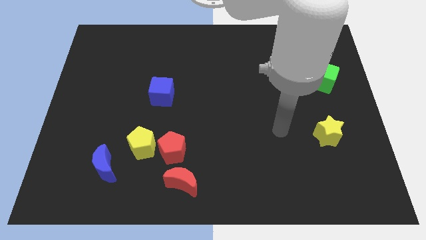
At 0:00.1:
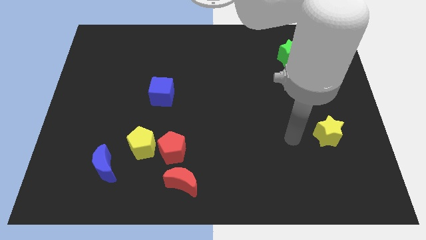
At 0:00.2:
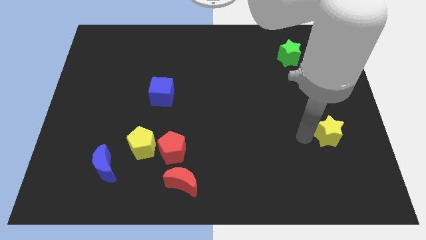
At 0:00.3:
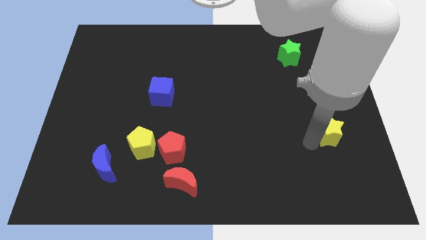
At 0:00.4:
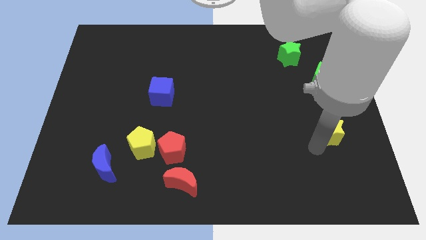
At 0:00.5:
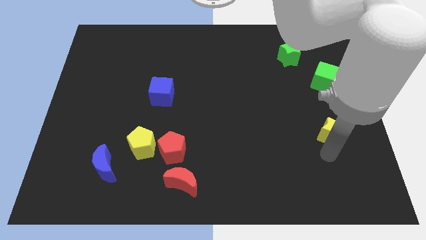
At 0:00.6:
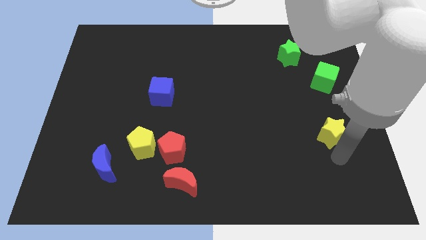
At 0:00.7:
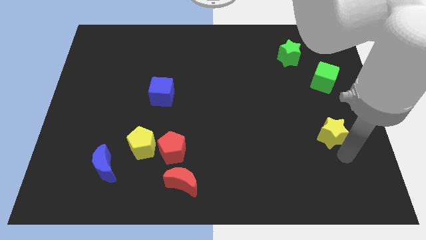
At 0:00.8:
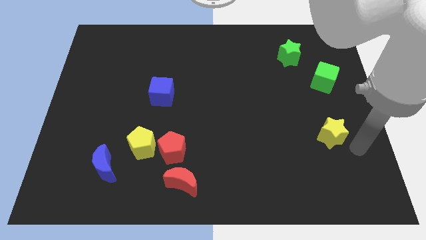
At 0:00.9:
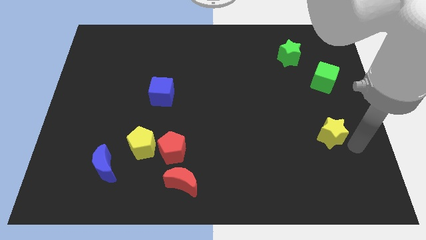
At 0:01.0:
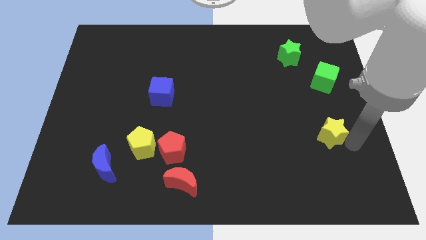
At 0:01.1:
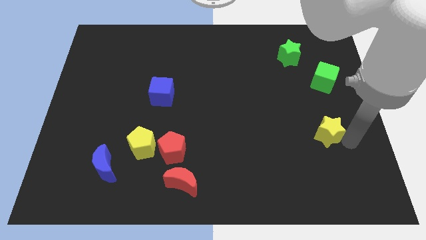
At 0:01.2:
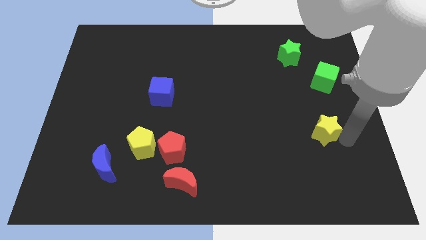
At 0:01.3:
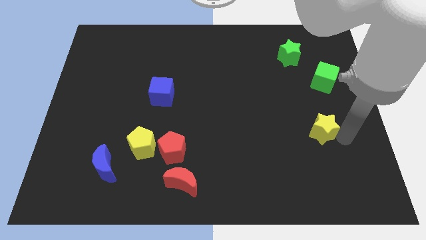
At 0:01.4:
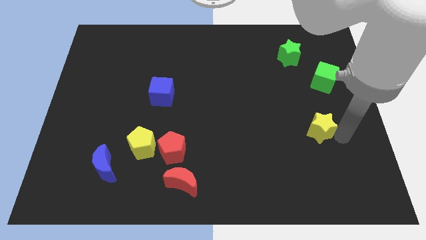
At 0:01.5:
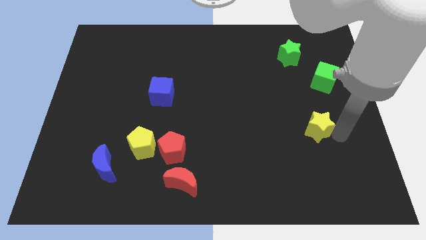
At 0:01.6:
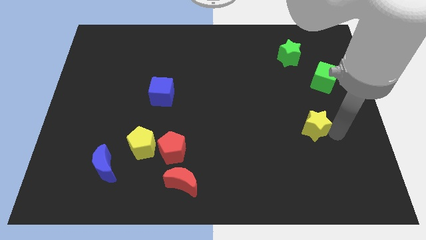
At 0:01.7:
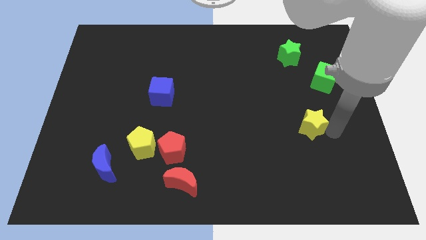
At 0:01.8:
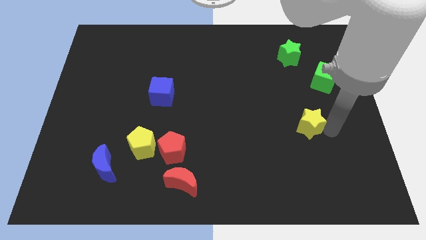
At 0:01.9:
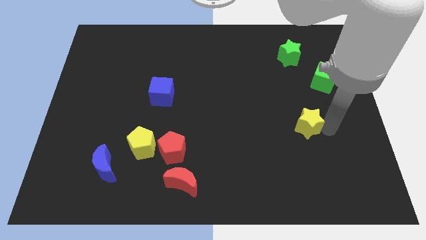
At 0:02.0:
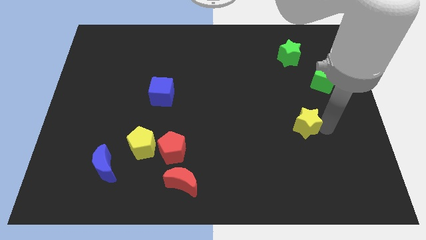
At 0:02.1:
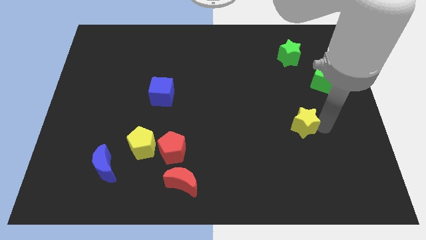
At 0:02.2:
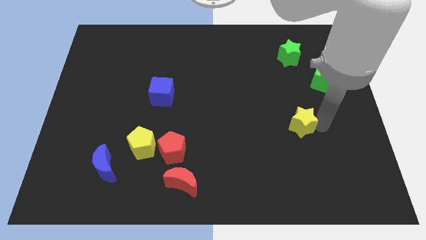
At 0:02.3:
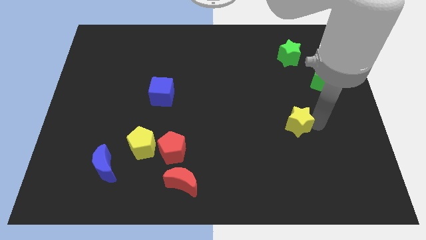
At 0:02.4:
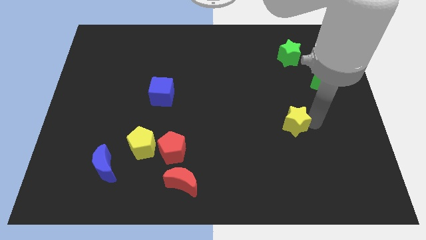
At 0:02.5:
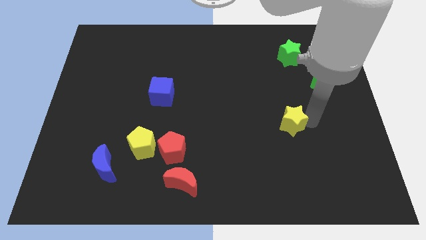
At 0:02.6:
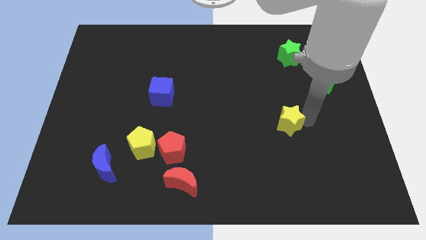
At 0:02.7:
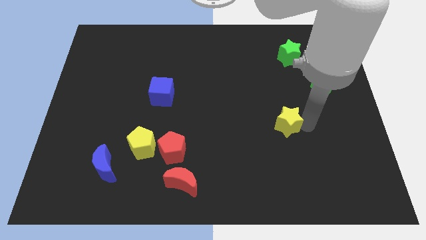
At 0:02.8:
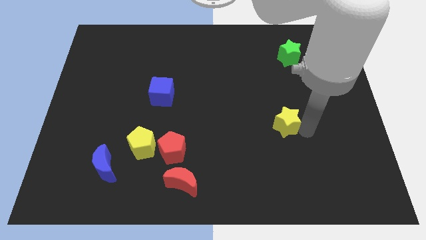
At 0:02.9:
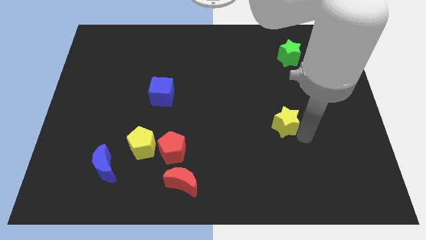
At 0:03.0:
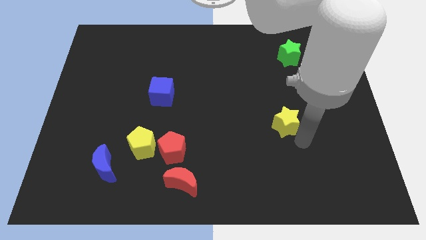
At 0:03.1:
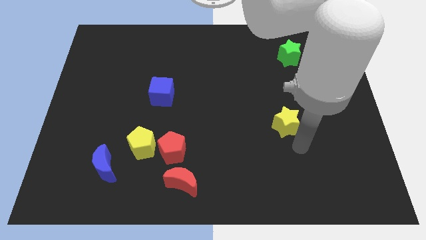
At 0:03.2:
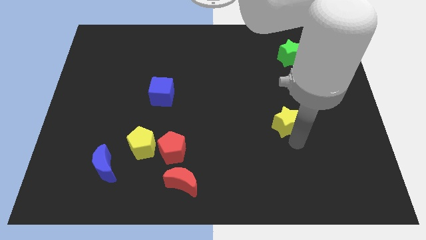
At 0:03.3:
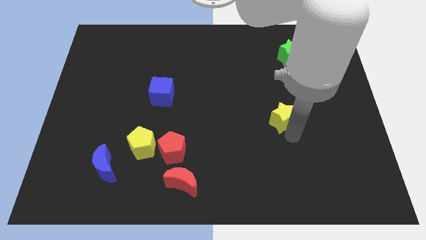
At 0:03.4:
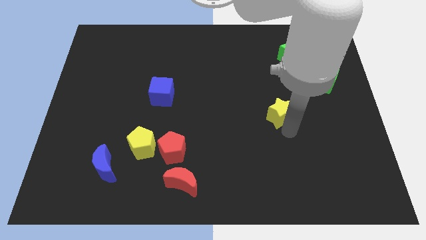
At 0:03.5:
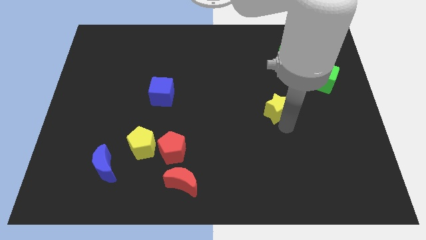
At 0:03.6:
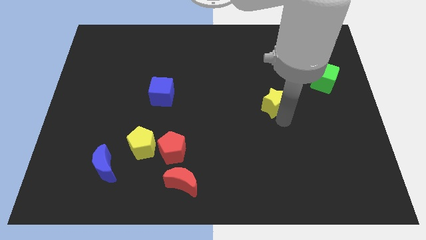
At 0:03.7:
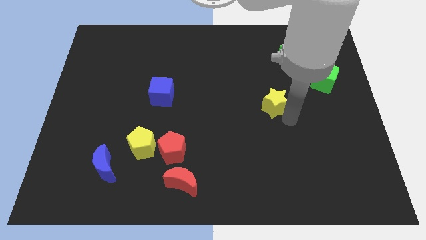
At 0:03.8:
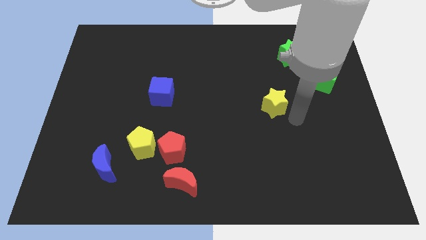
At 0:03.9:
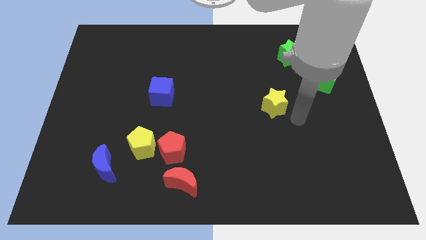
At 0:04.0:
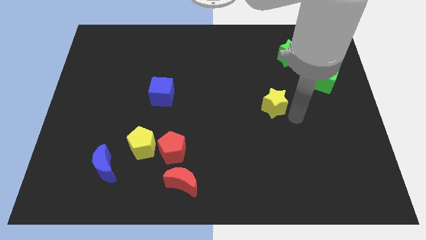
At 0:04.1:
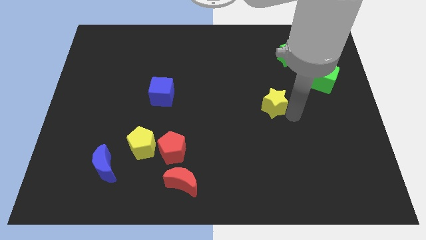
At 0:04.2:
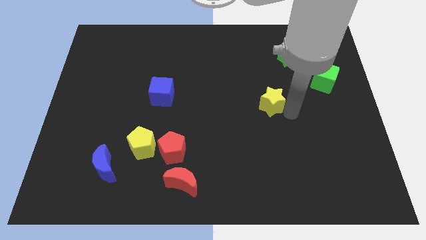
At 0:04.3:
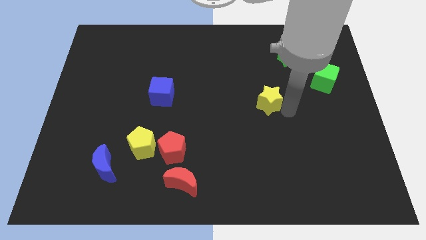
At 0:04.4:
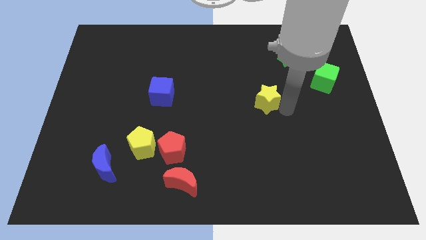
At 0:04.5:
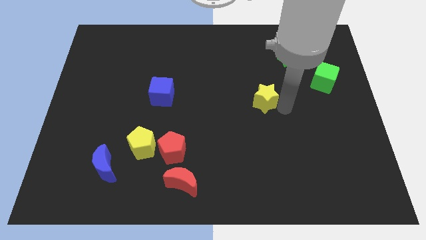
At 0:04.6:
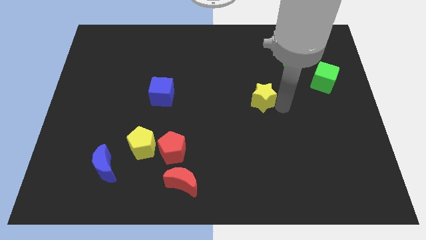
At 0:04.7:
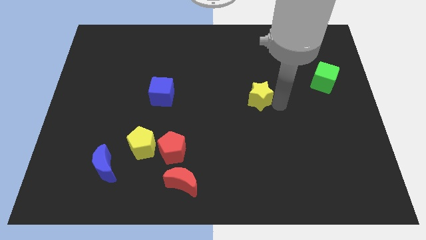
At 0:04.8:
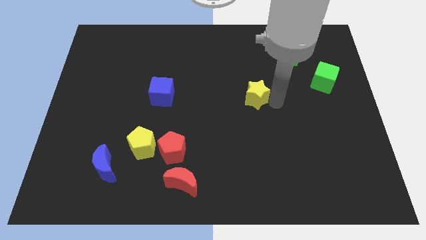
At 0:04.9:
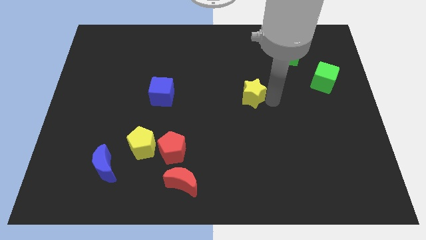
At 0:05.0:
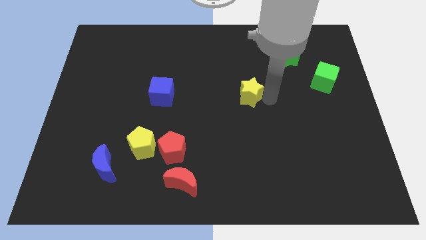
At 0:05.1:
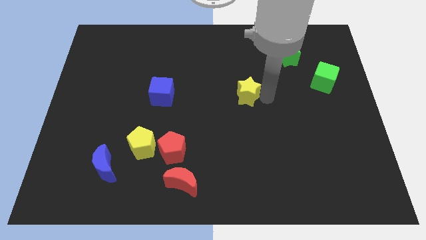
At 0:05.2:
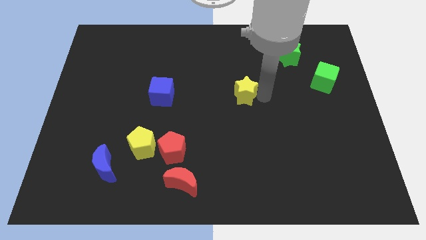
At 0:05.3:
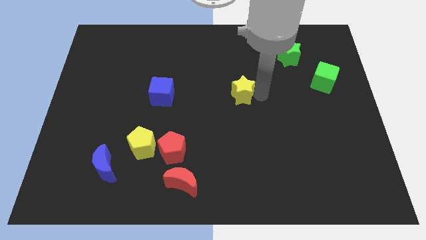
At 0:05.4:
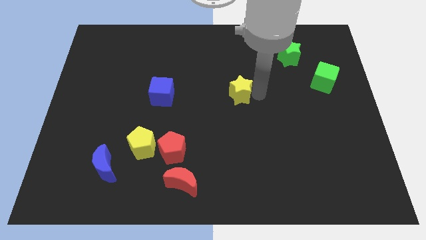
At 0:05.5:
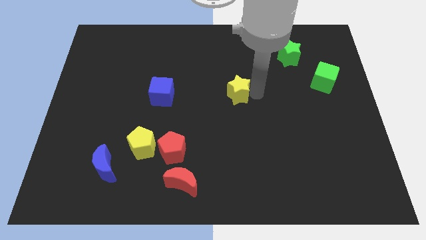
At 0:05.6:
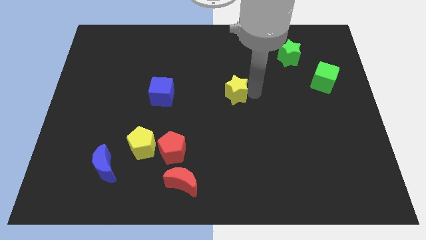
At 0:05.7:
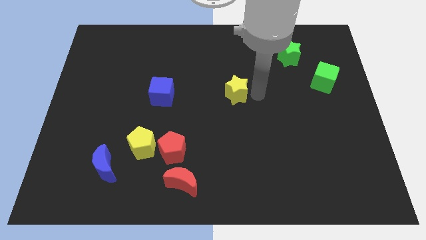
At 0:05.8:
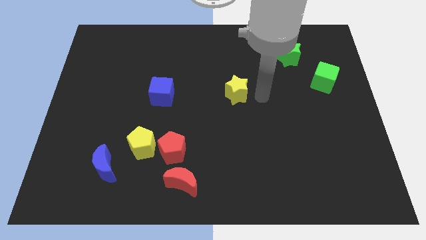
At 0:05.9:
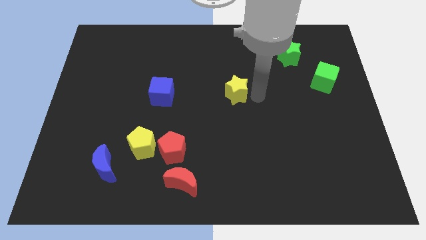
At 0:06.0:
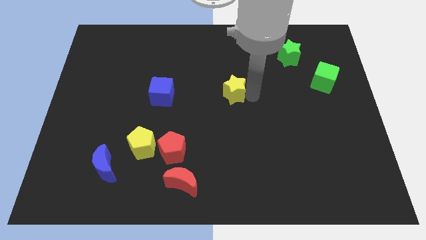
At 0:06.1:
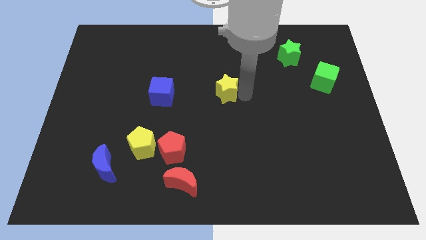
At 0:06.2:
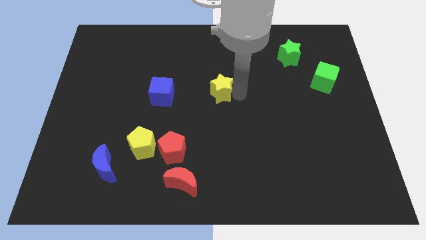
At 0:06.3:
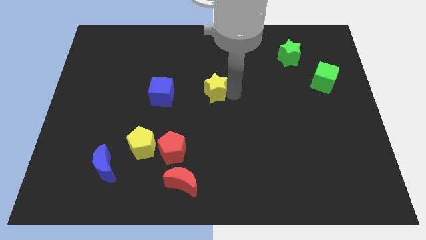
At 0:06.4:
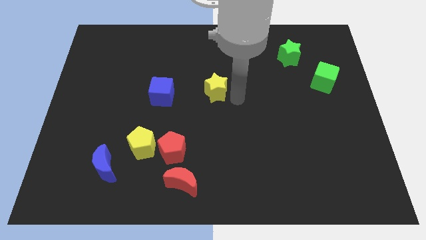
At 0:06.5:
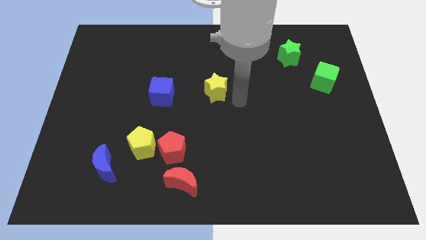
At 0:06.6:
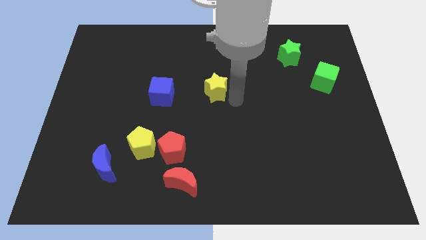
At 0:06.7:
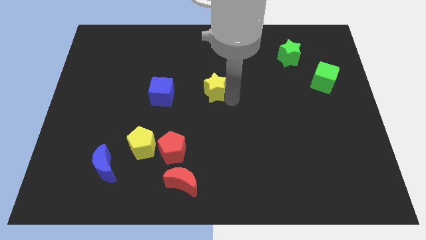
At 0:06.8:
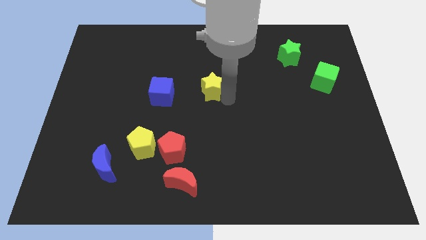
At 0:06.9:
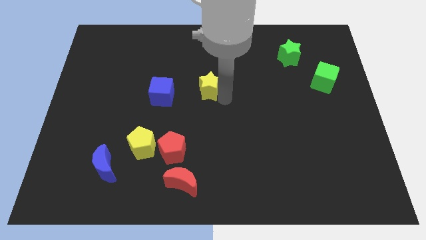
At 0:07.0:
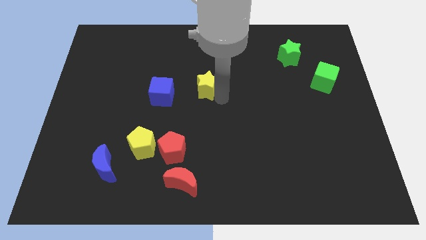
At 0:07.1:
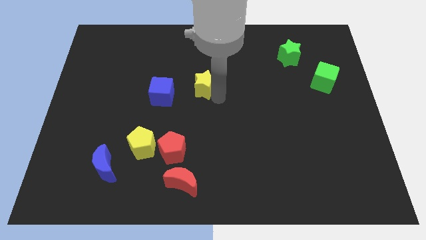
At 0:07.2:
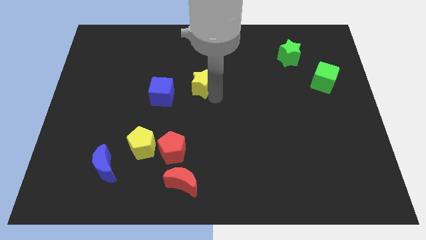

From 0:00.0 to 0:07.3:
push the yellow star to the top right side of the blue cube
